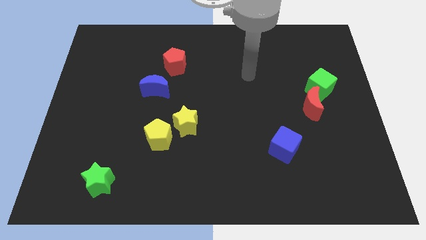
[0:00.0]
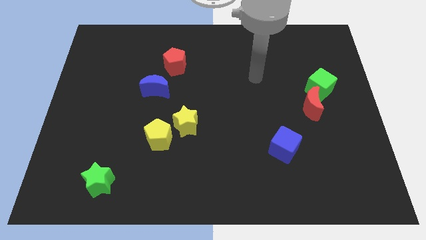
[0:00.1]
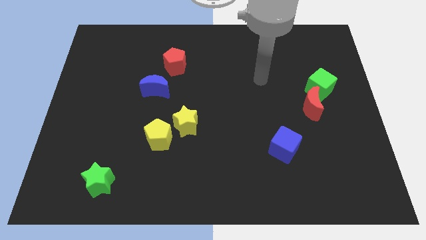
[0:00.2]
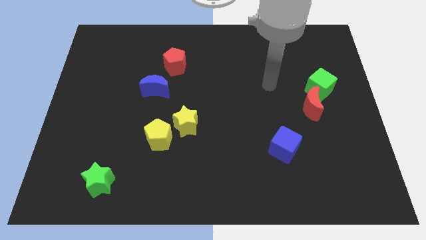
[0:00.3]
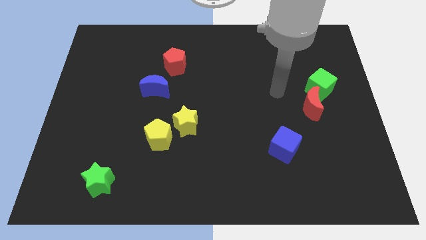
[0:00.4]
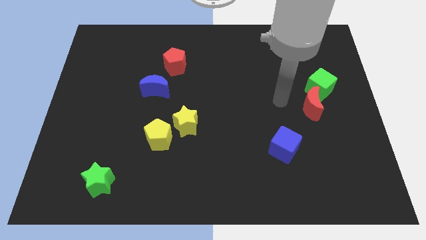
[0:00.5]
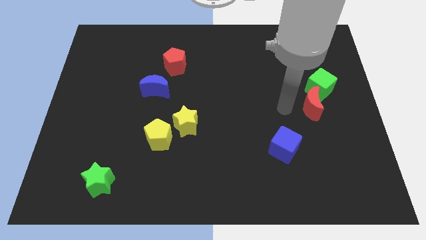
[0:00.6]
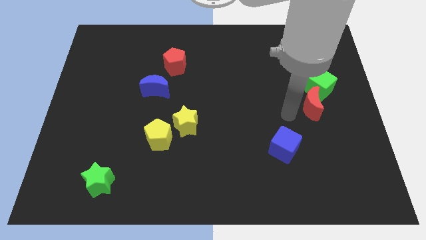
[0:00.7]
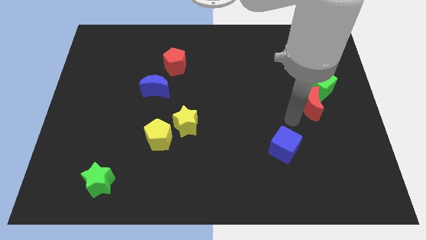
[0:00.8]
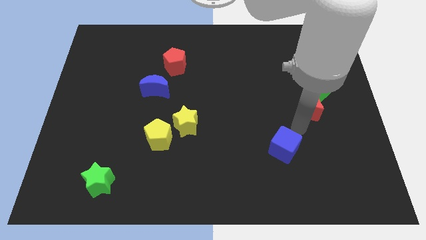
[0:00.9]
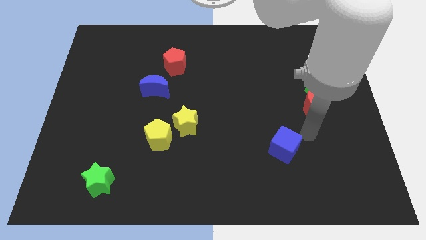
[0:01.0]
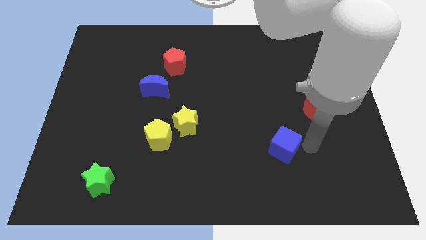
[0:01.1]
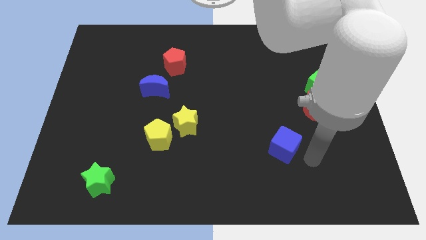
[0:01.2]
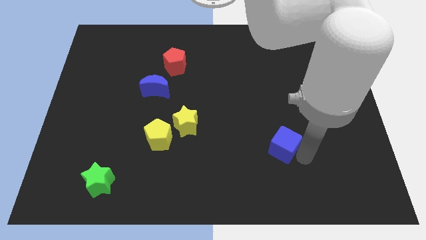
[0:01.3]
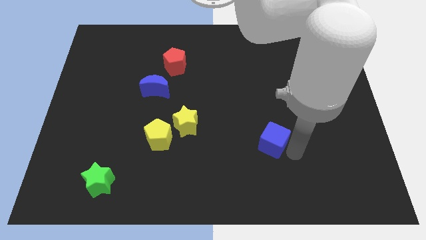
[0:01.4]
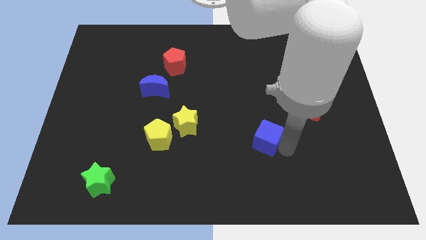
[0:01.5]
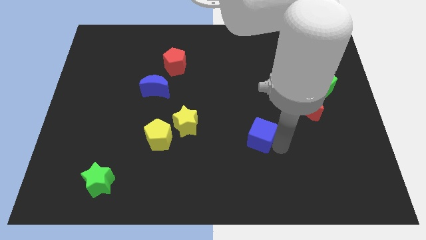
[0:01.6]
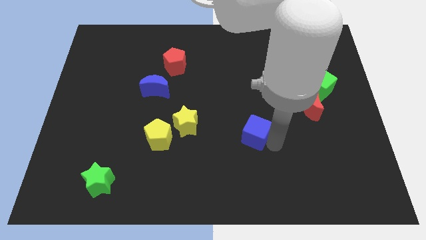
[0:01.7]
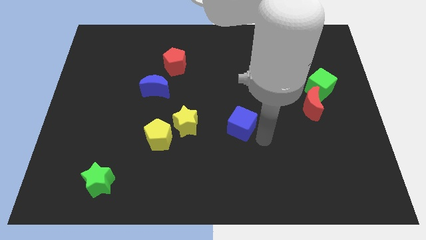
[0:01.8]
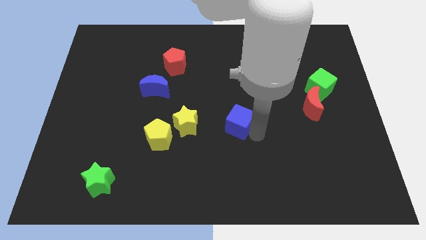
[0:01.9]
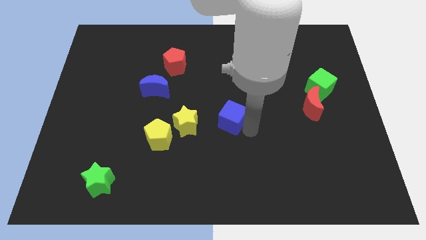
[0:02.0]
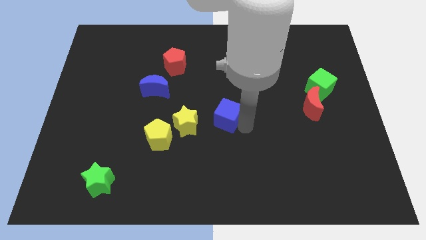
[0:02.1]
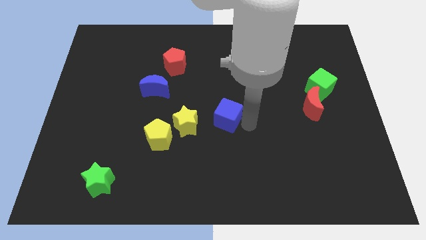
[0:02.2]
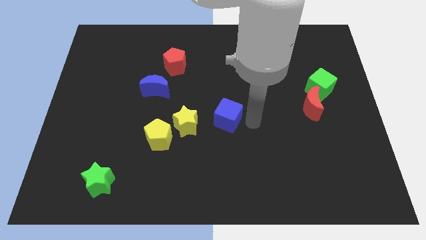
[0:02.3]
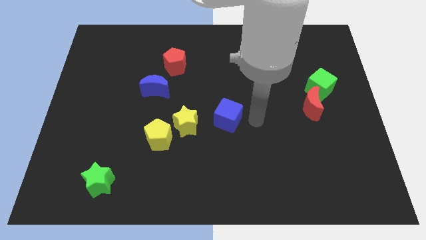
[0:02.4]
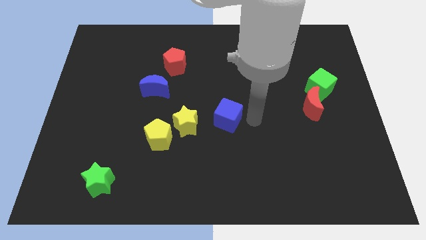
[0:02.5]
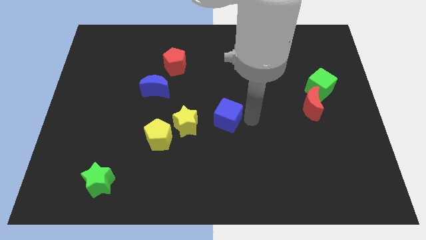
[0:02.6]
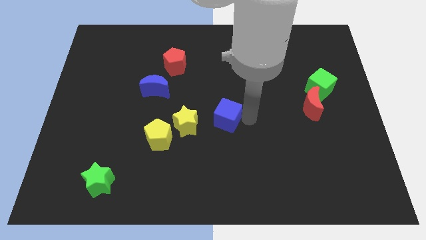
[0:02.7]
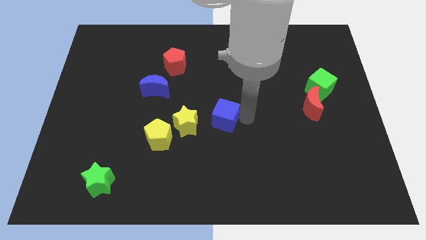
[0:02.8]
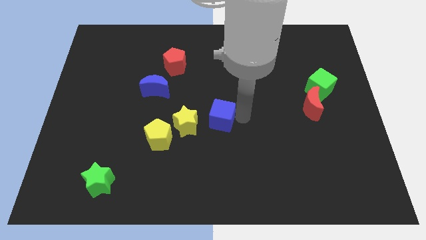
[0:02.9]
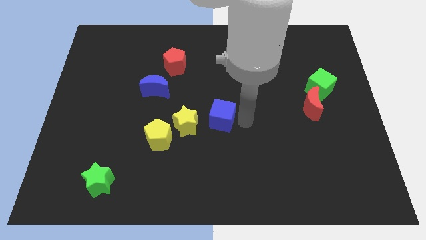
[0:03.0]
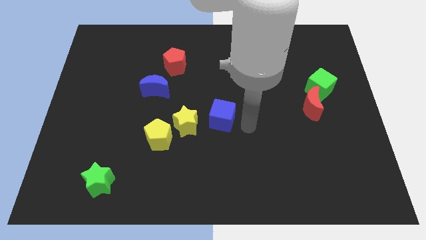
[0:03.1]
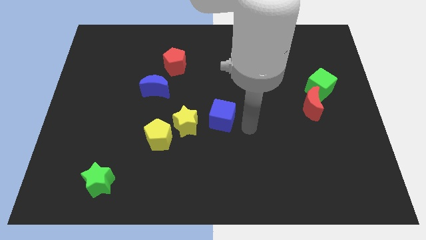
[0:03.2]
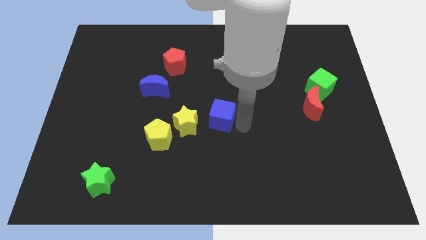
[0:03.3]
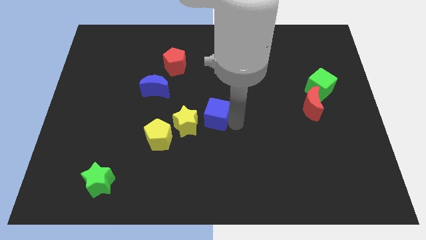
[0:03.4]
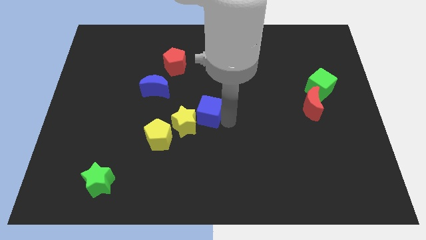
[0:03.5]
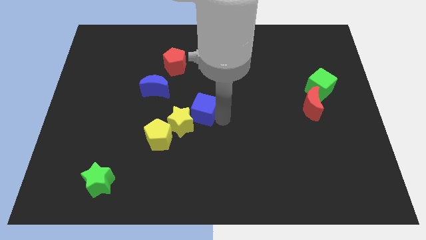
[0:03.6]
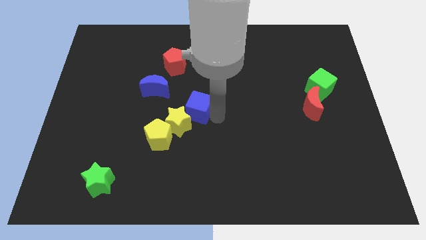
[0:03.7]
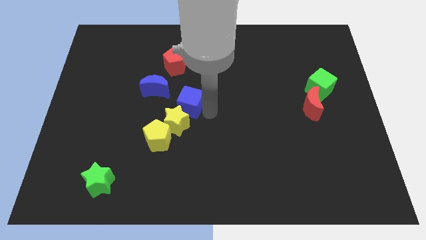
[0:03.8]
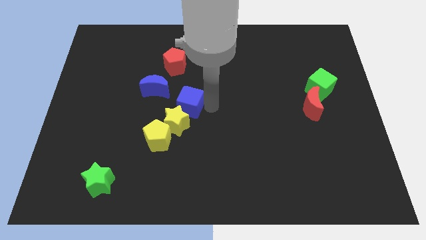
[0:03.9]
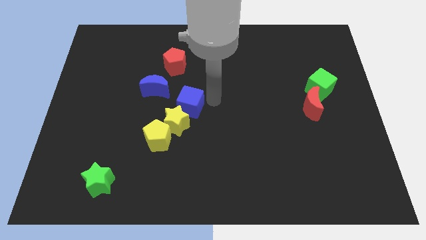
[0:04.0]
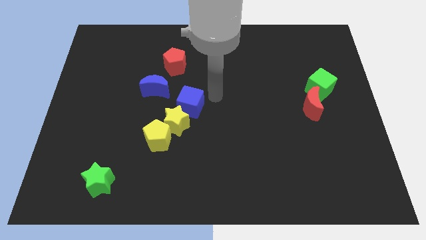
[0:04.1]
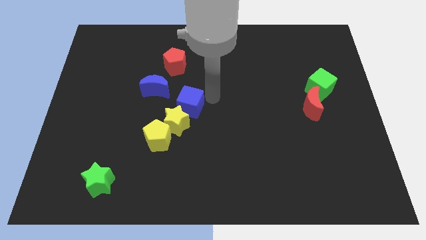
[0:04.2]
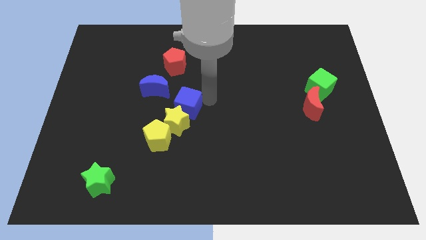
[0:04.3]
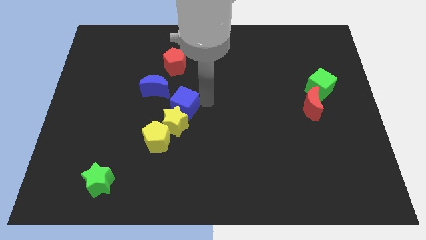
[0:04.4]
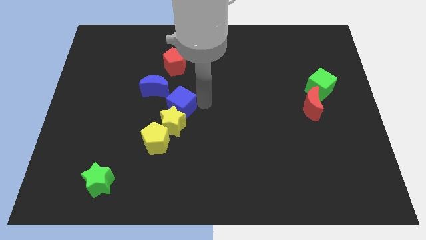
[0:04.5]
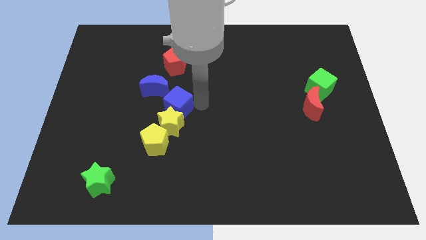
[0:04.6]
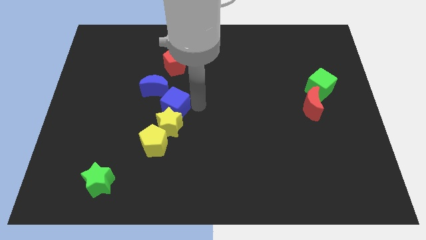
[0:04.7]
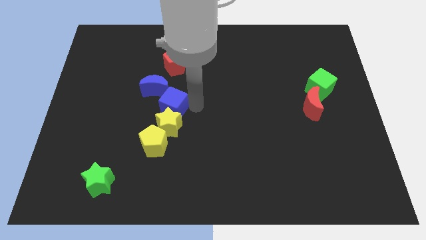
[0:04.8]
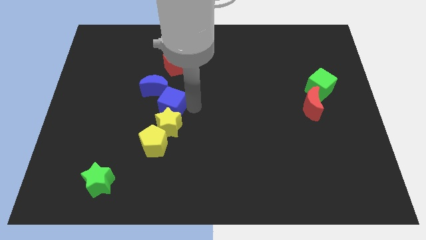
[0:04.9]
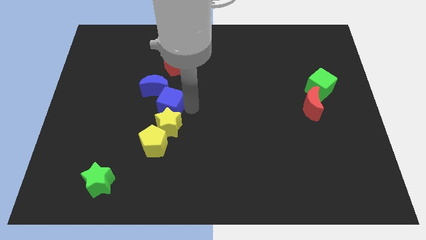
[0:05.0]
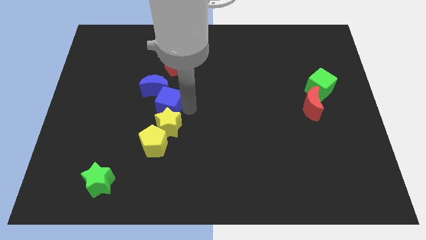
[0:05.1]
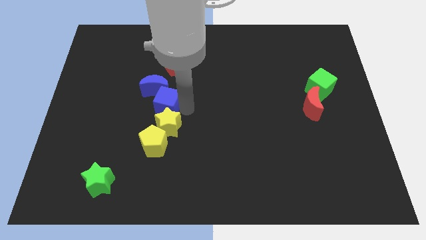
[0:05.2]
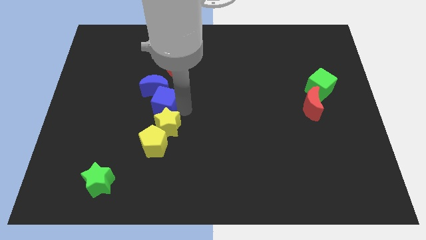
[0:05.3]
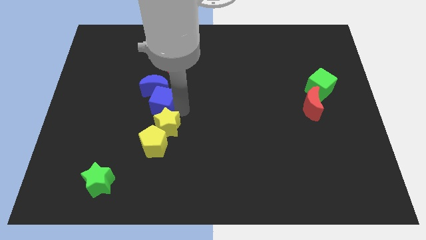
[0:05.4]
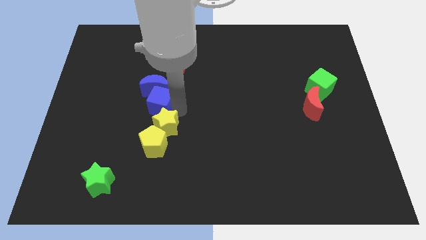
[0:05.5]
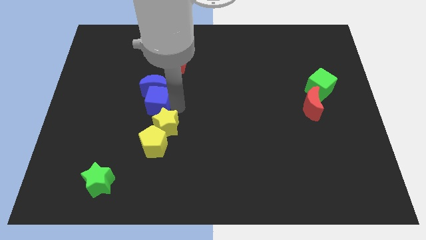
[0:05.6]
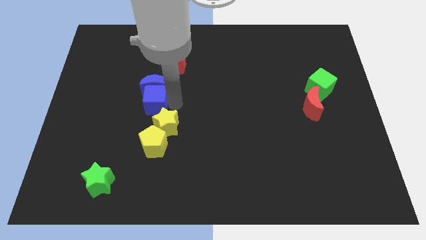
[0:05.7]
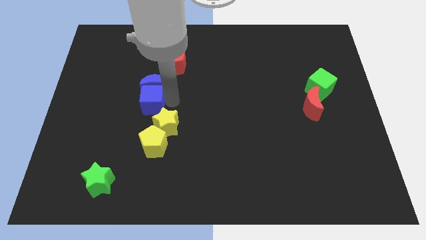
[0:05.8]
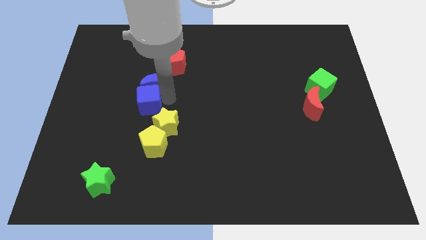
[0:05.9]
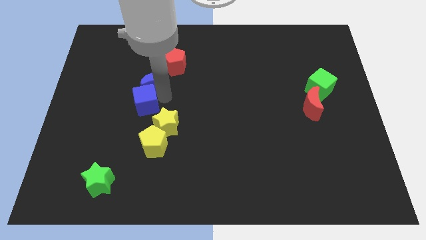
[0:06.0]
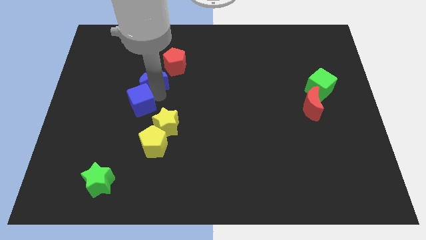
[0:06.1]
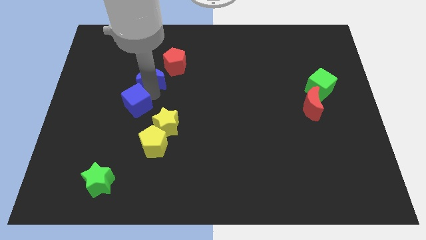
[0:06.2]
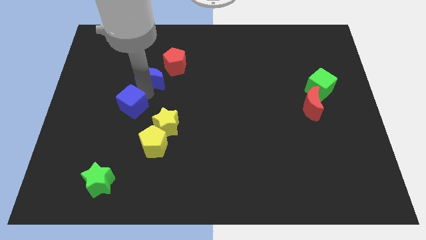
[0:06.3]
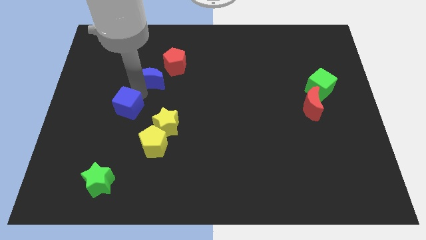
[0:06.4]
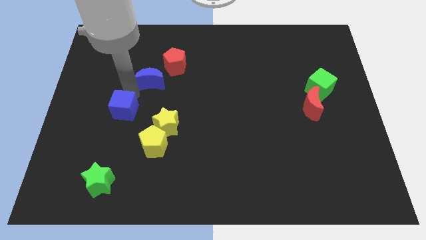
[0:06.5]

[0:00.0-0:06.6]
put the blue cube just left of the yellow star

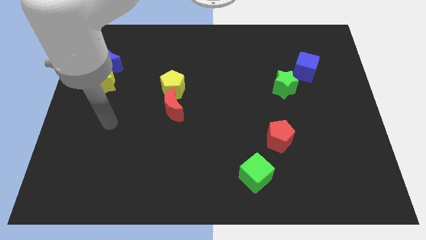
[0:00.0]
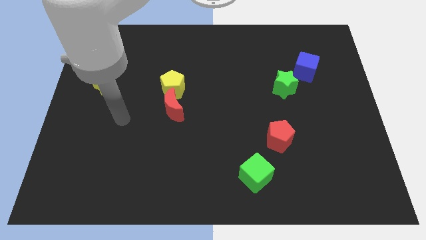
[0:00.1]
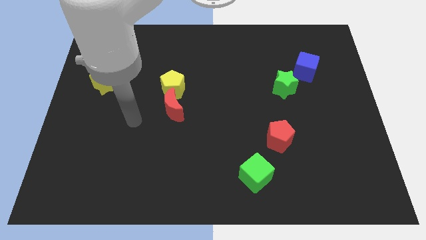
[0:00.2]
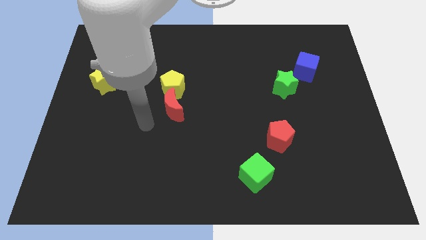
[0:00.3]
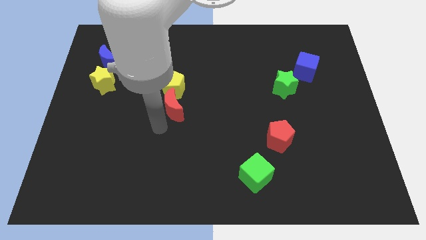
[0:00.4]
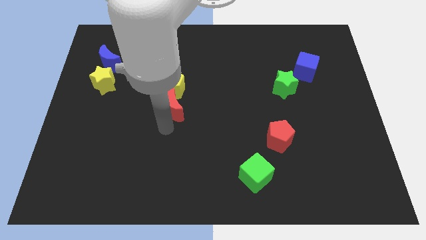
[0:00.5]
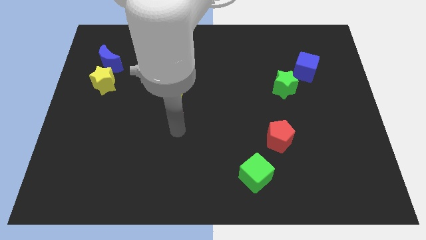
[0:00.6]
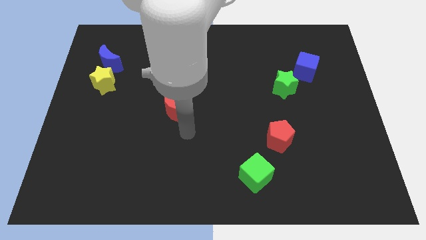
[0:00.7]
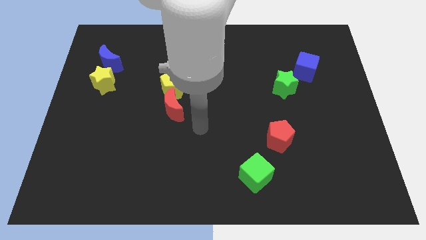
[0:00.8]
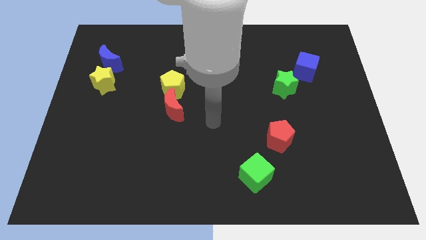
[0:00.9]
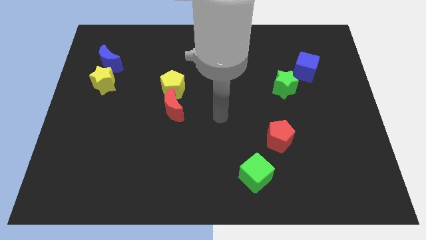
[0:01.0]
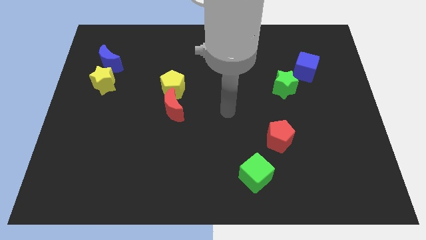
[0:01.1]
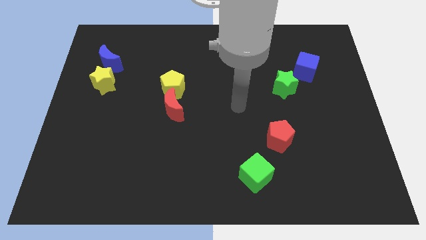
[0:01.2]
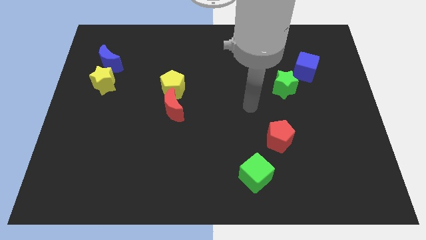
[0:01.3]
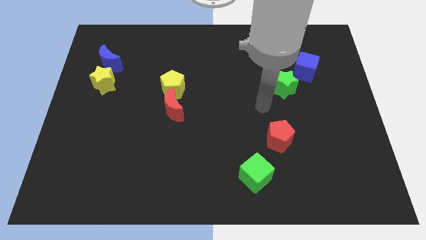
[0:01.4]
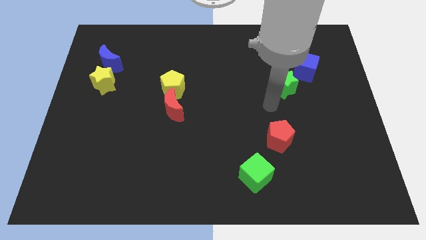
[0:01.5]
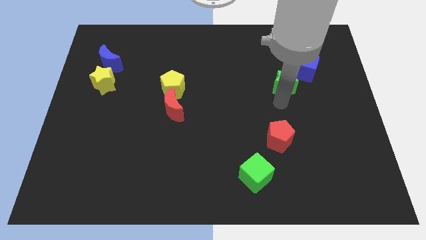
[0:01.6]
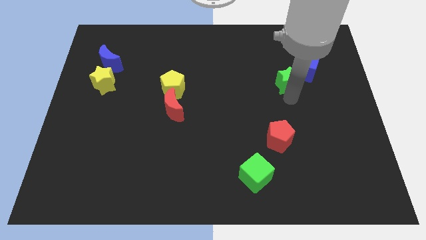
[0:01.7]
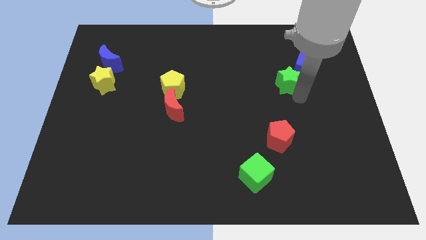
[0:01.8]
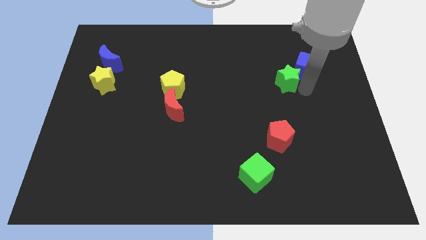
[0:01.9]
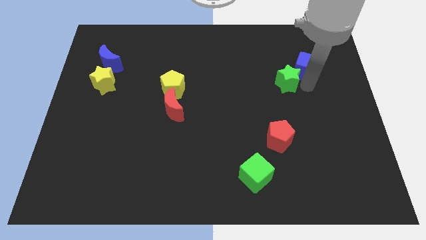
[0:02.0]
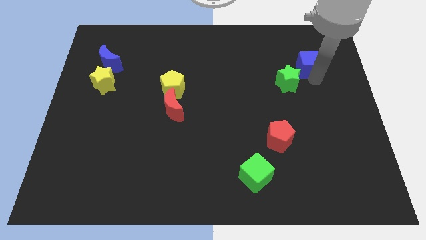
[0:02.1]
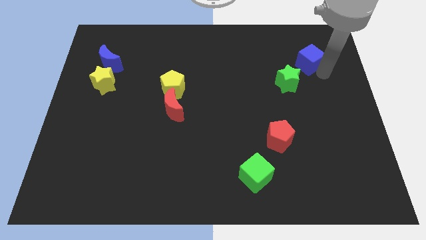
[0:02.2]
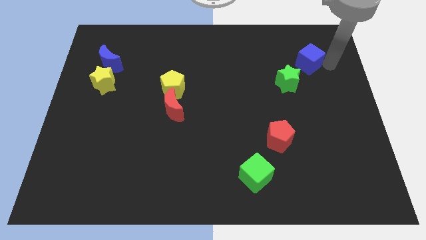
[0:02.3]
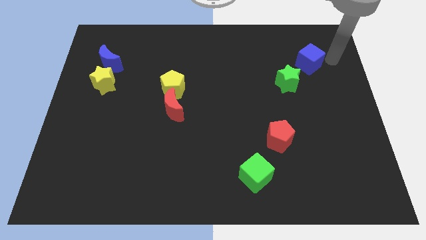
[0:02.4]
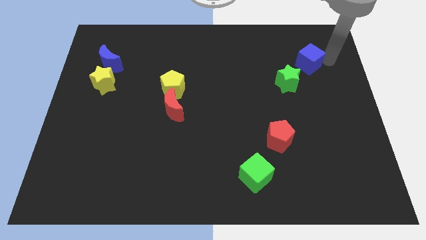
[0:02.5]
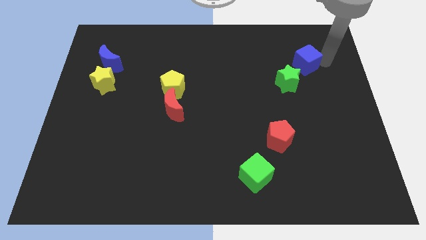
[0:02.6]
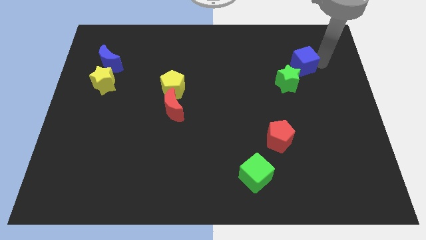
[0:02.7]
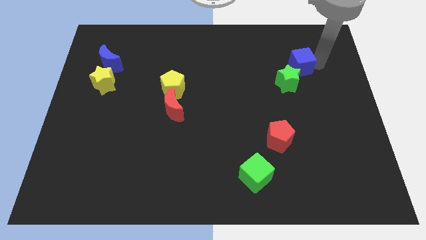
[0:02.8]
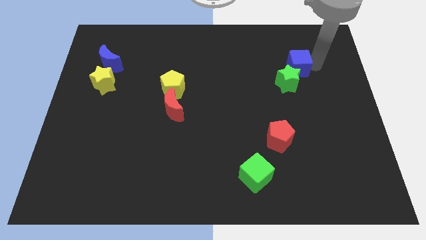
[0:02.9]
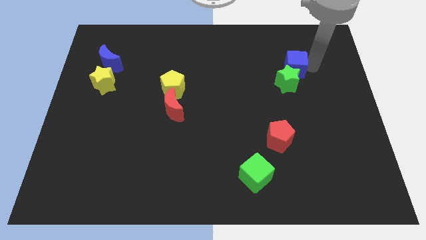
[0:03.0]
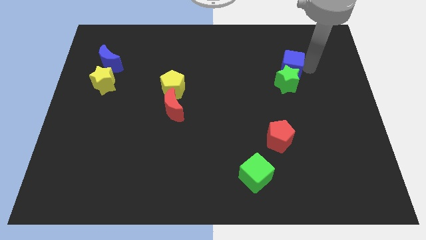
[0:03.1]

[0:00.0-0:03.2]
move the blue cube to the top left of the green star
